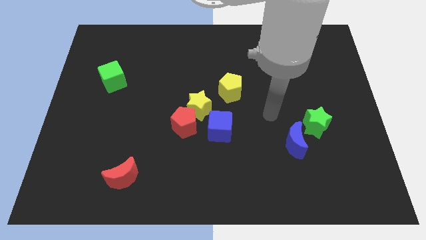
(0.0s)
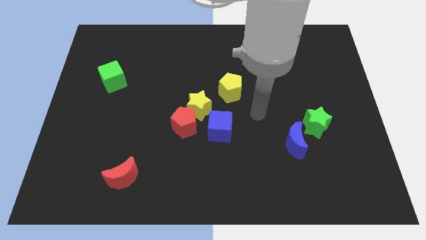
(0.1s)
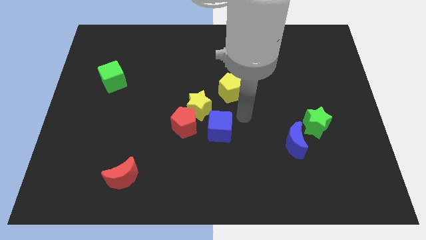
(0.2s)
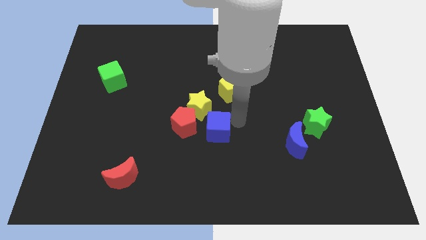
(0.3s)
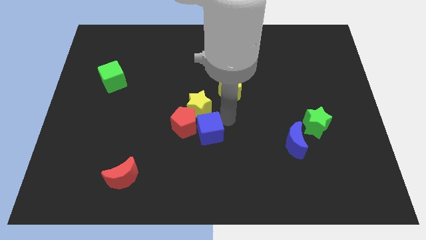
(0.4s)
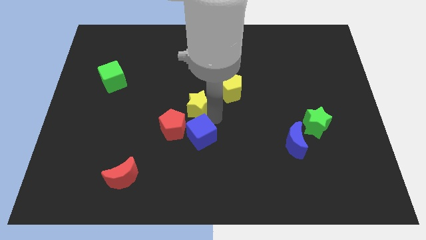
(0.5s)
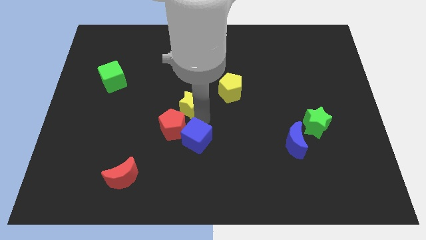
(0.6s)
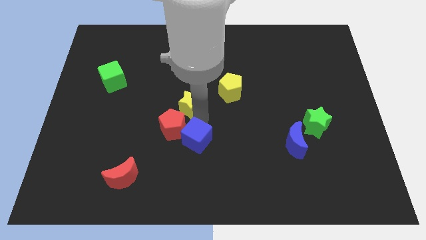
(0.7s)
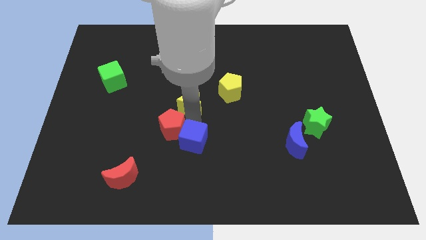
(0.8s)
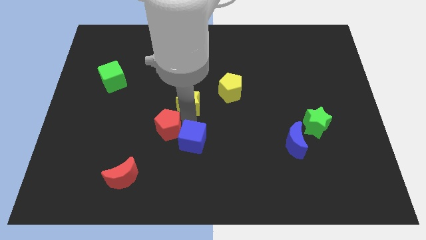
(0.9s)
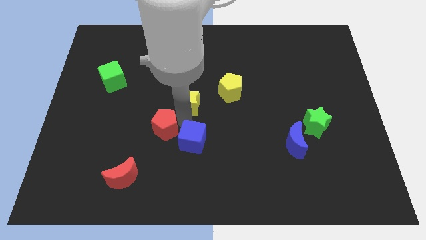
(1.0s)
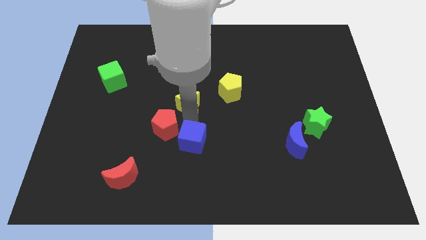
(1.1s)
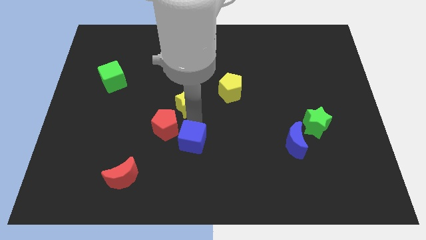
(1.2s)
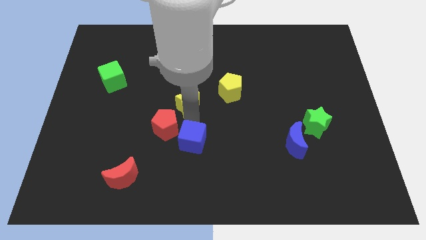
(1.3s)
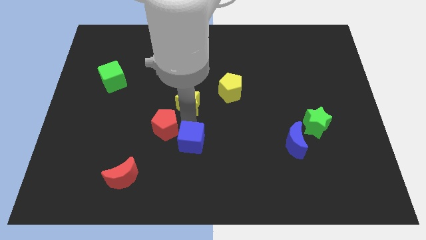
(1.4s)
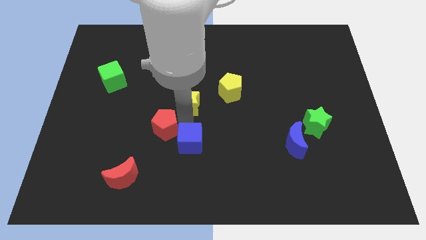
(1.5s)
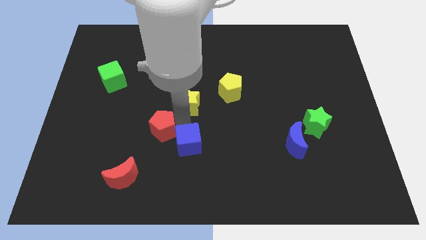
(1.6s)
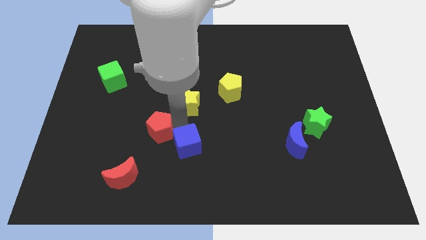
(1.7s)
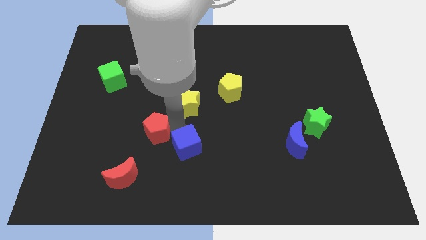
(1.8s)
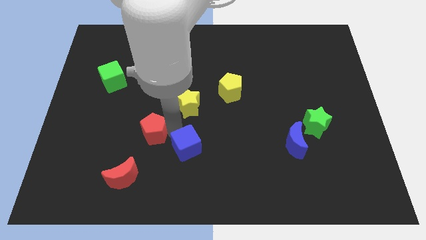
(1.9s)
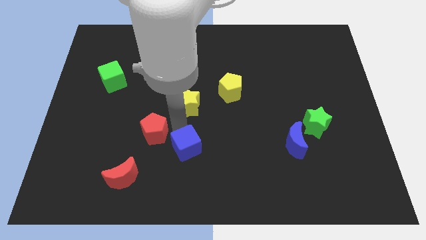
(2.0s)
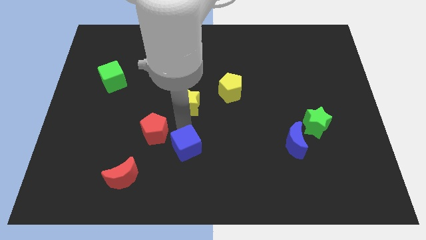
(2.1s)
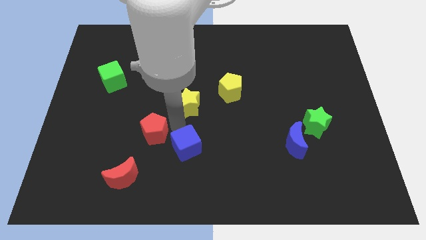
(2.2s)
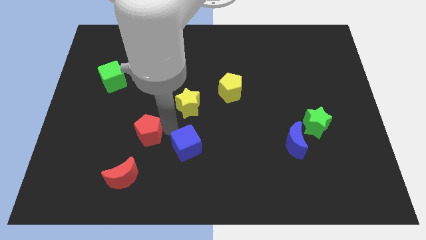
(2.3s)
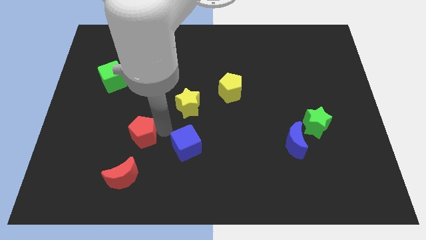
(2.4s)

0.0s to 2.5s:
move the red pentagon away from the yellow star and blue cube

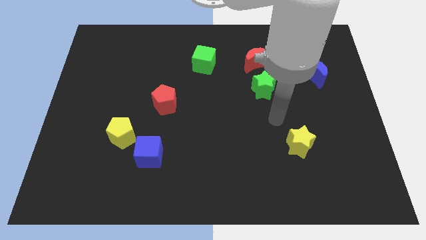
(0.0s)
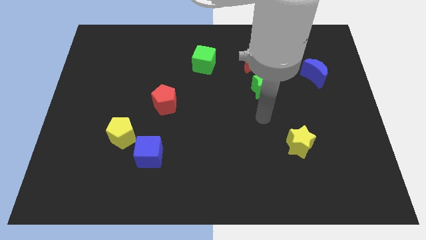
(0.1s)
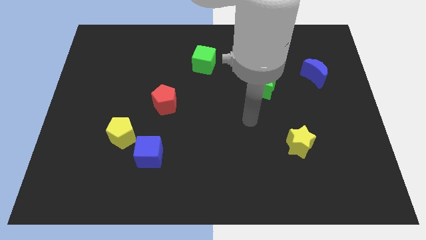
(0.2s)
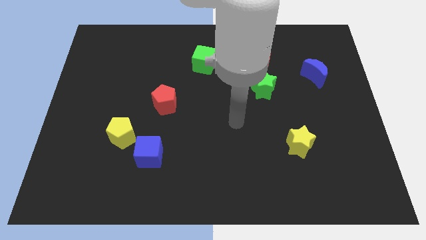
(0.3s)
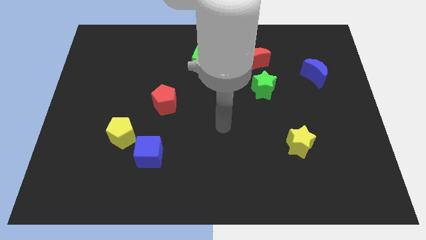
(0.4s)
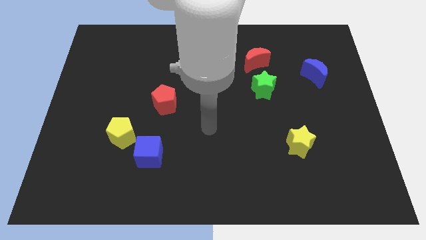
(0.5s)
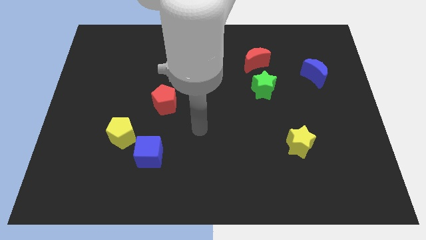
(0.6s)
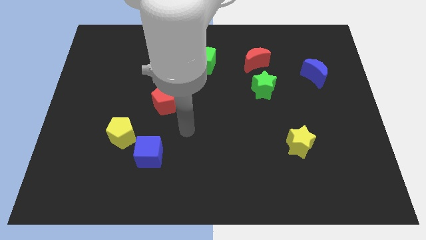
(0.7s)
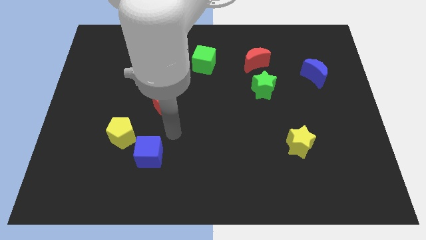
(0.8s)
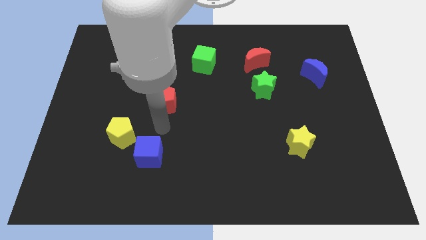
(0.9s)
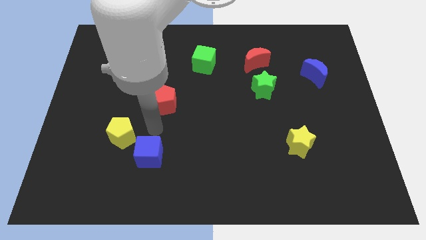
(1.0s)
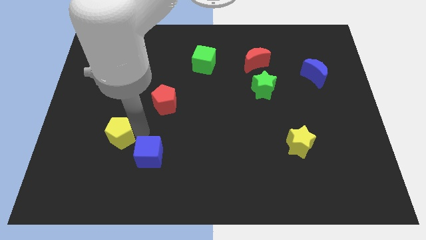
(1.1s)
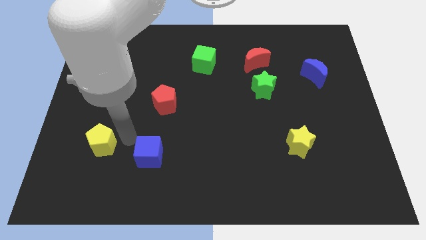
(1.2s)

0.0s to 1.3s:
move the blue cube away from the yellow pentagon

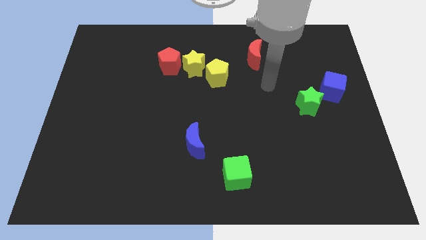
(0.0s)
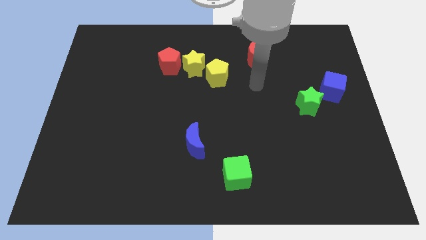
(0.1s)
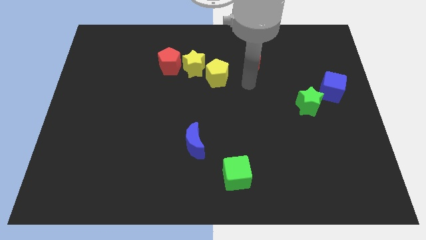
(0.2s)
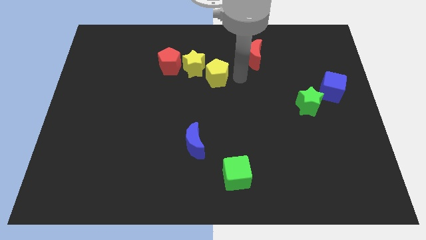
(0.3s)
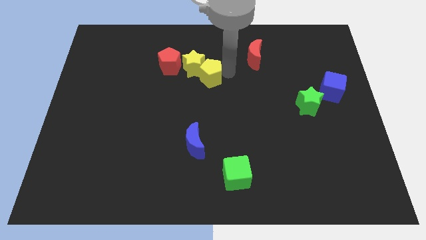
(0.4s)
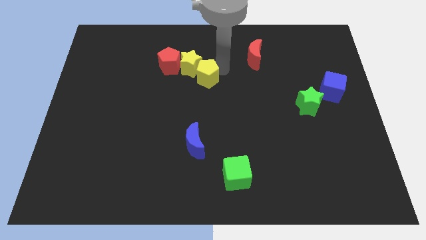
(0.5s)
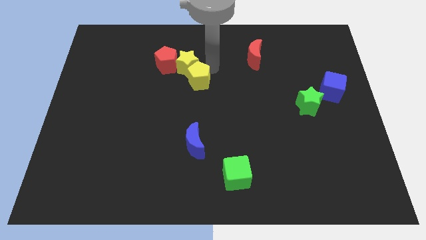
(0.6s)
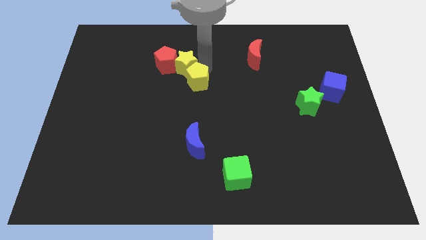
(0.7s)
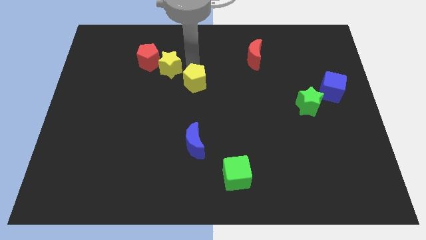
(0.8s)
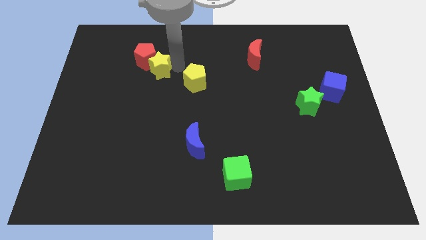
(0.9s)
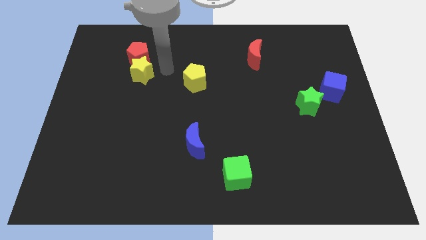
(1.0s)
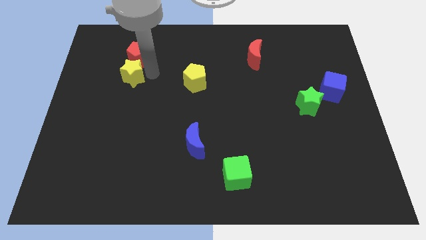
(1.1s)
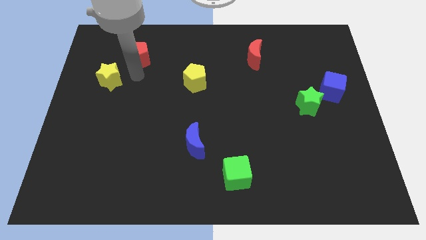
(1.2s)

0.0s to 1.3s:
separate the red pentagon from the yellow star

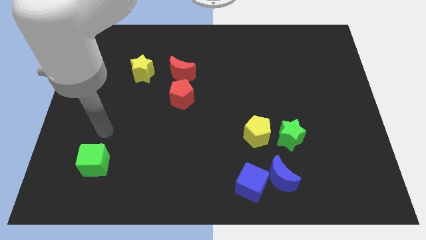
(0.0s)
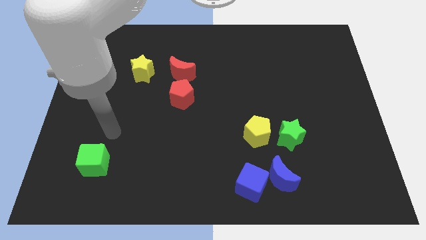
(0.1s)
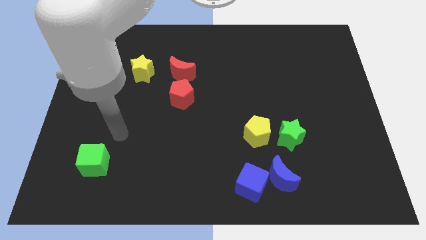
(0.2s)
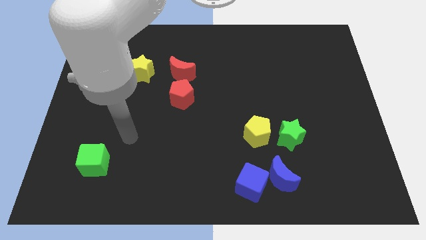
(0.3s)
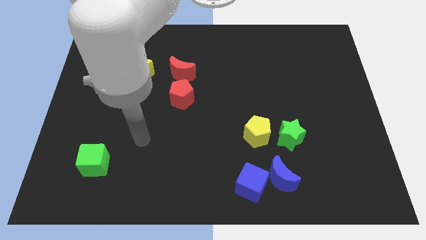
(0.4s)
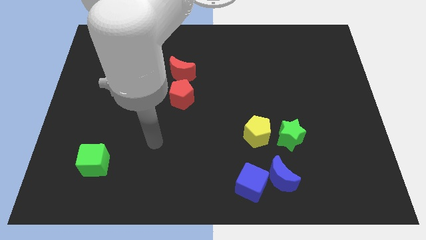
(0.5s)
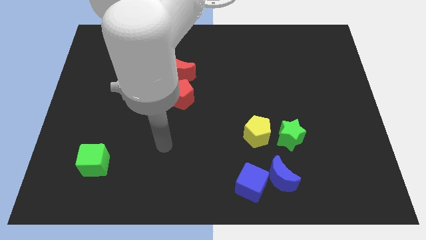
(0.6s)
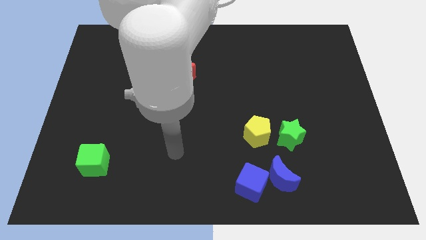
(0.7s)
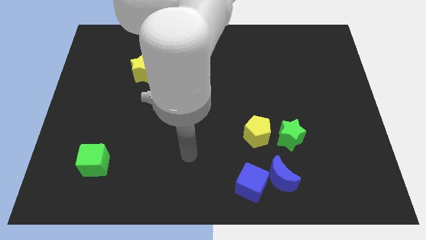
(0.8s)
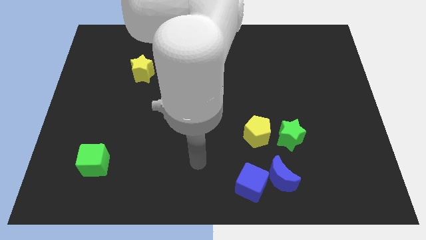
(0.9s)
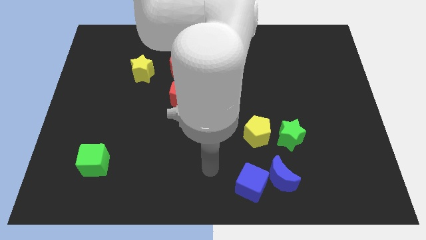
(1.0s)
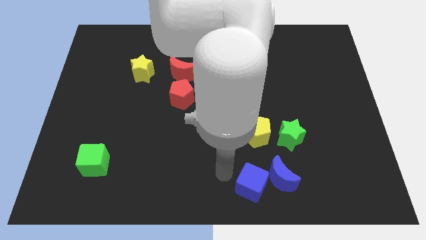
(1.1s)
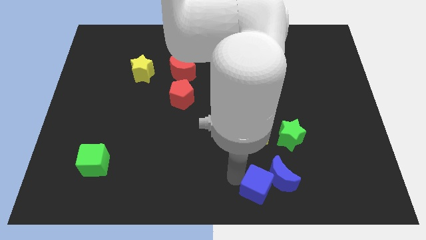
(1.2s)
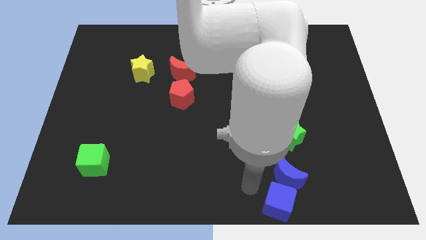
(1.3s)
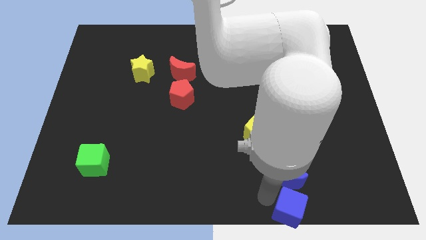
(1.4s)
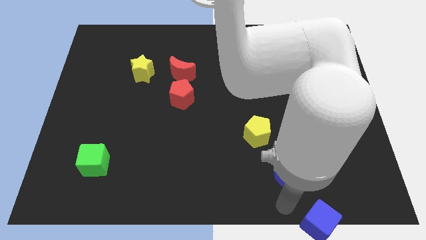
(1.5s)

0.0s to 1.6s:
pull the blue moon apart from the blue cube

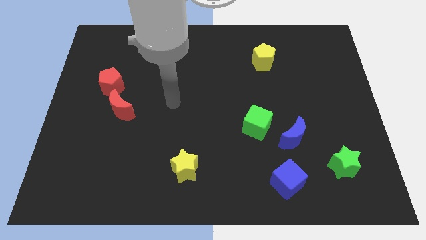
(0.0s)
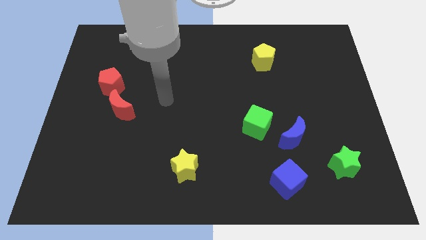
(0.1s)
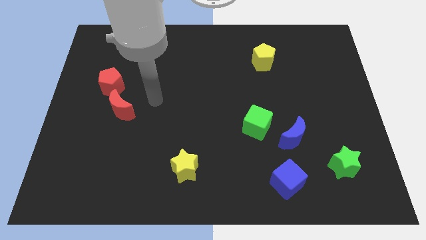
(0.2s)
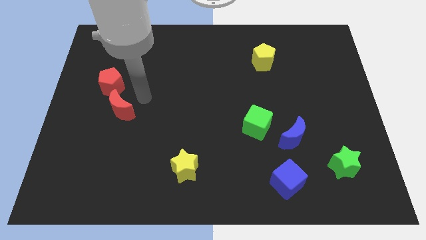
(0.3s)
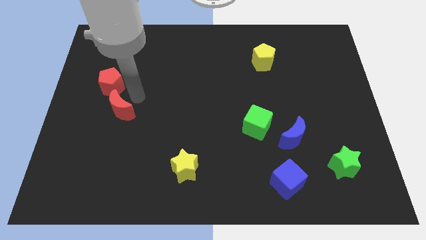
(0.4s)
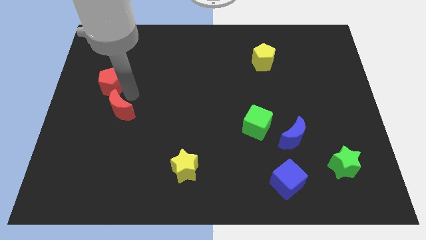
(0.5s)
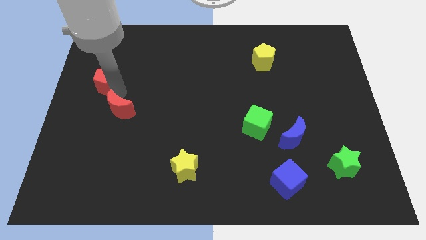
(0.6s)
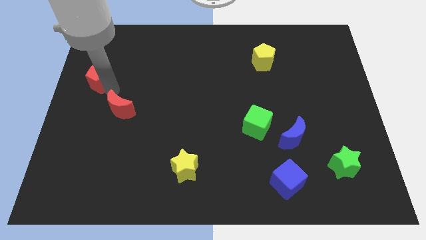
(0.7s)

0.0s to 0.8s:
separate the red moon from the red pentagon

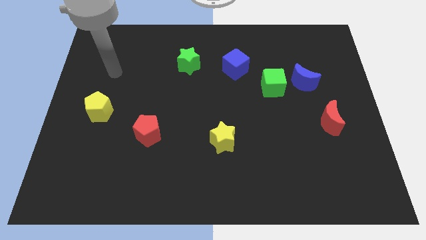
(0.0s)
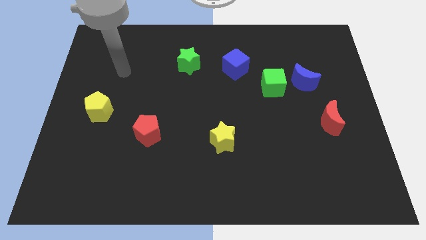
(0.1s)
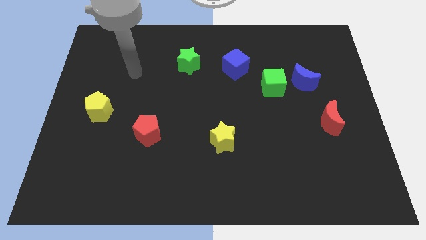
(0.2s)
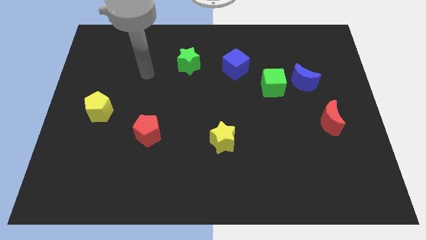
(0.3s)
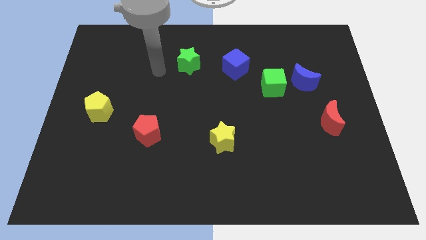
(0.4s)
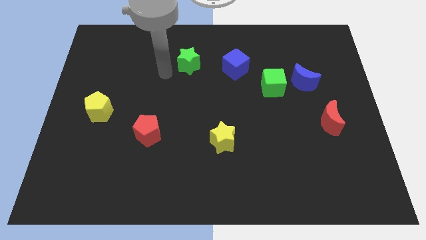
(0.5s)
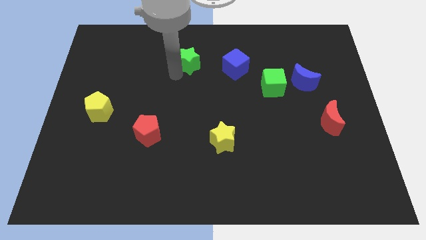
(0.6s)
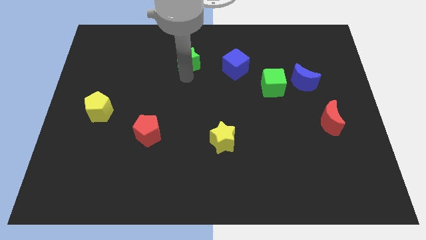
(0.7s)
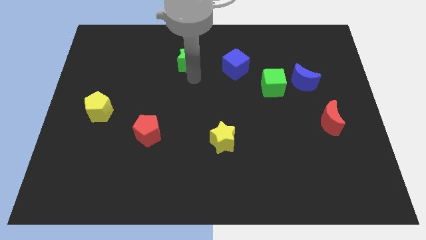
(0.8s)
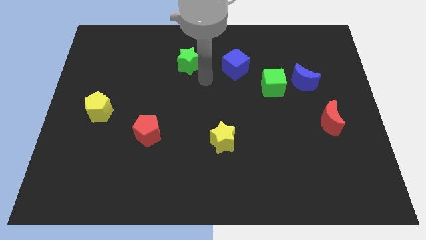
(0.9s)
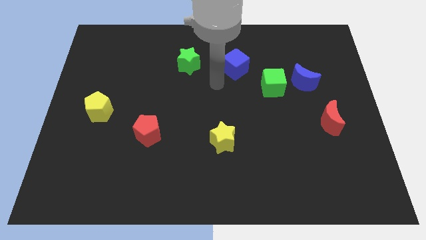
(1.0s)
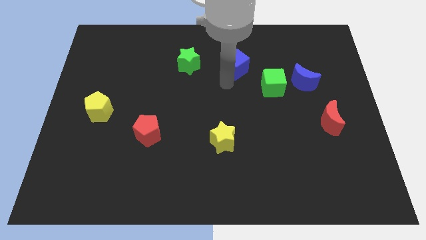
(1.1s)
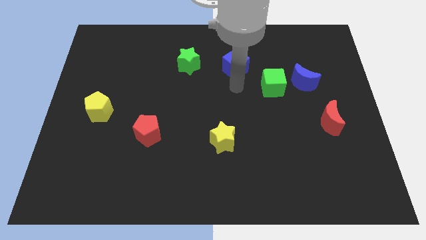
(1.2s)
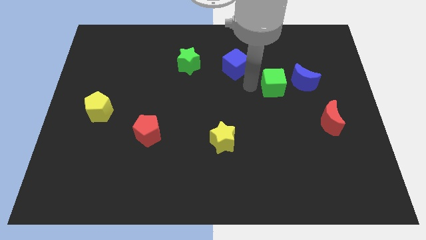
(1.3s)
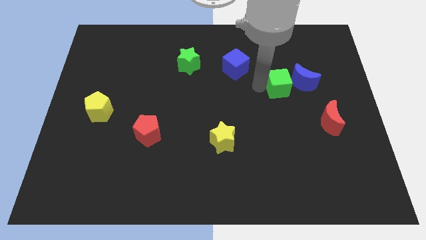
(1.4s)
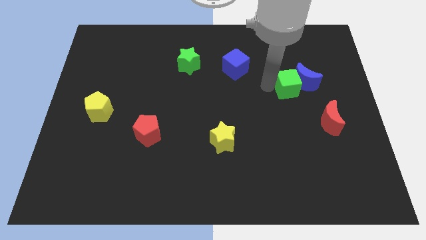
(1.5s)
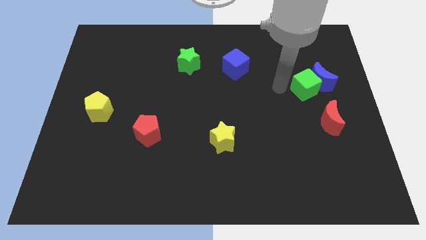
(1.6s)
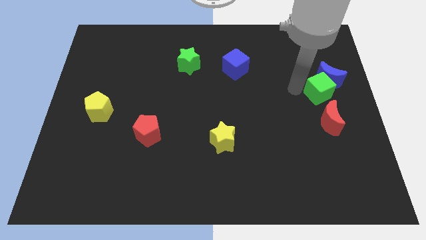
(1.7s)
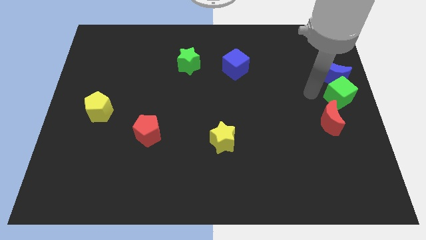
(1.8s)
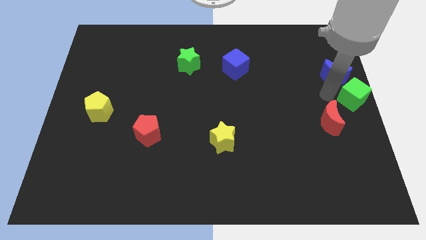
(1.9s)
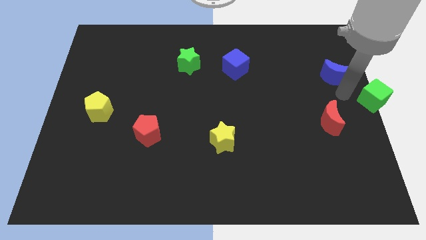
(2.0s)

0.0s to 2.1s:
separate the blue moon from the green cube
